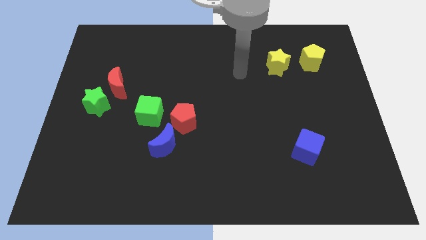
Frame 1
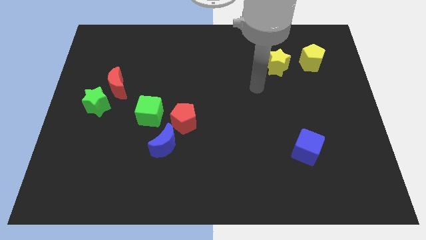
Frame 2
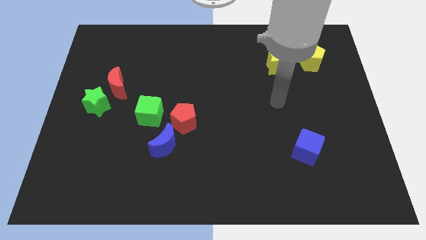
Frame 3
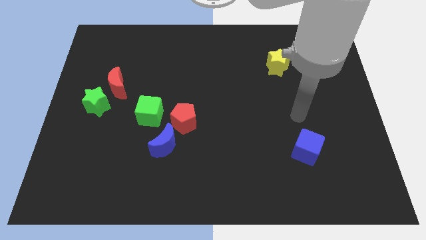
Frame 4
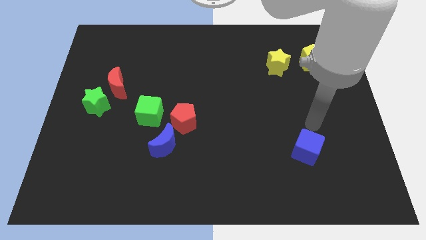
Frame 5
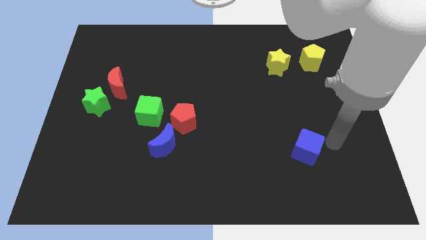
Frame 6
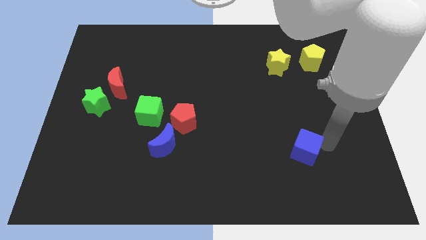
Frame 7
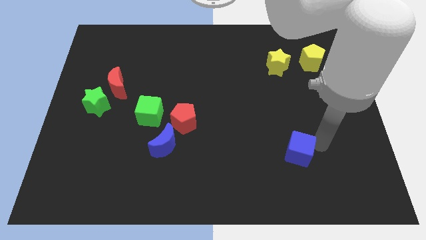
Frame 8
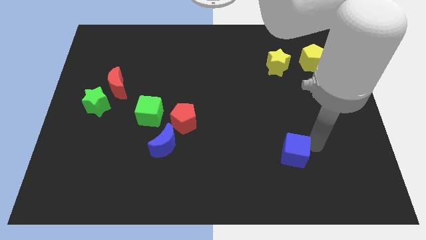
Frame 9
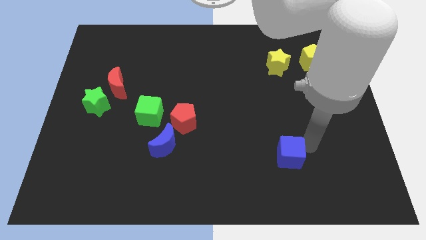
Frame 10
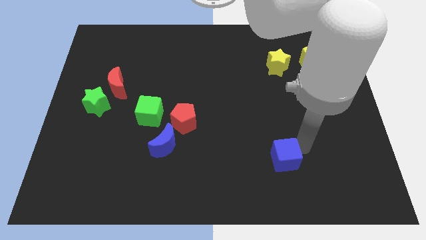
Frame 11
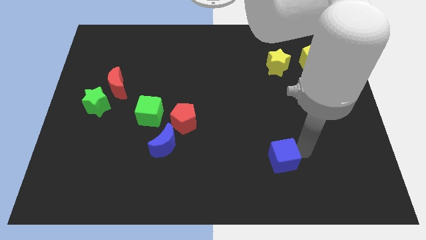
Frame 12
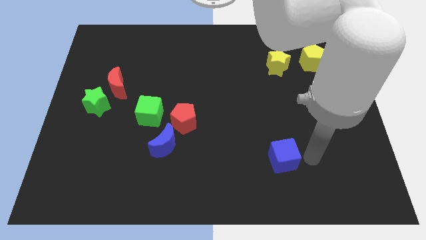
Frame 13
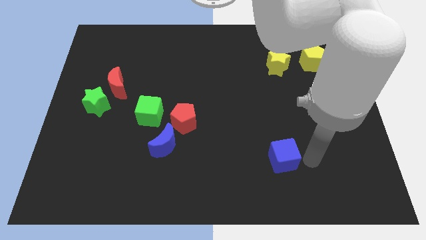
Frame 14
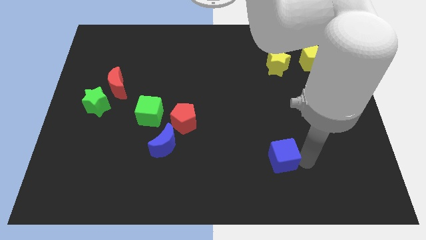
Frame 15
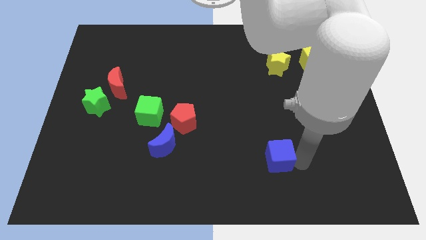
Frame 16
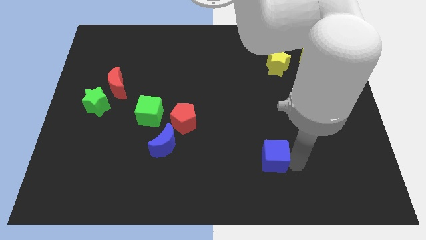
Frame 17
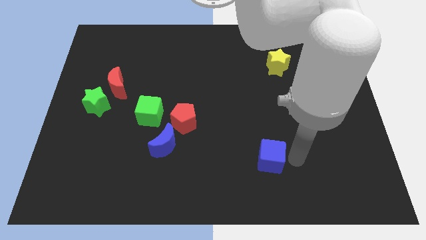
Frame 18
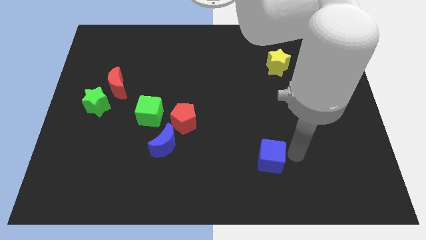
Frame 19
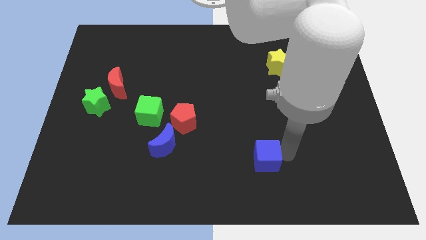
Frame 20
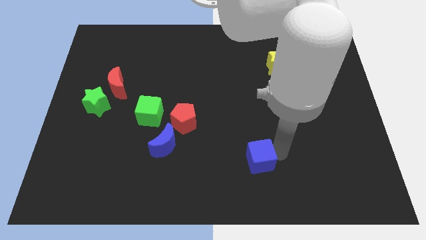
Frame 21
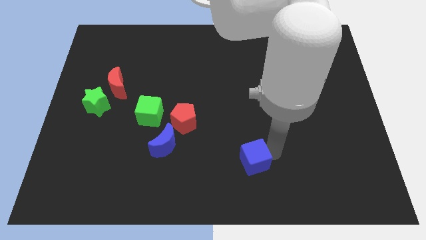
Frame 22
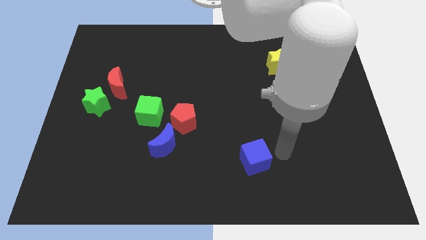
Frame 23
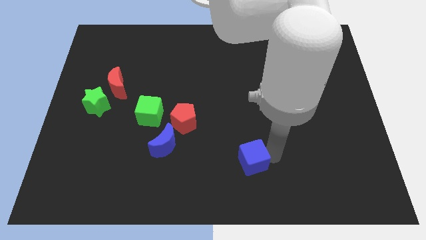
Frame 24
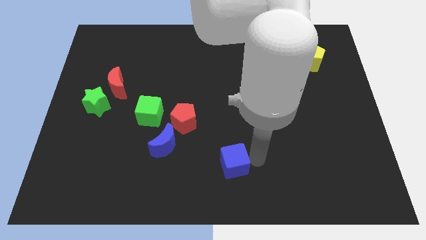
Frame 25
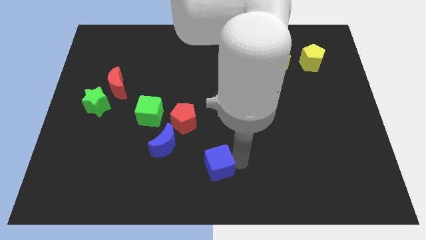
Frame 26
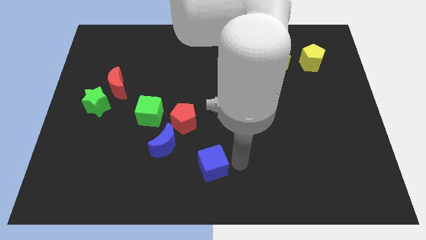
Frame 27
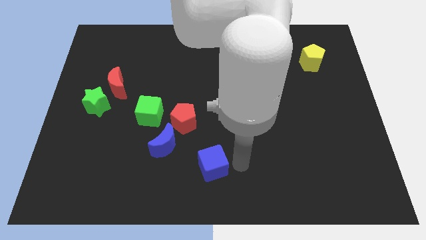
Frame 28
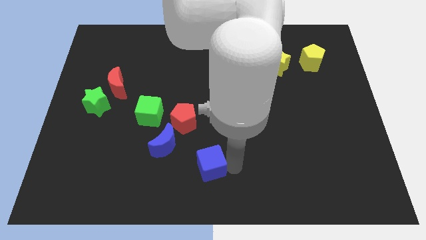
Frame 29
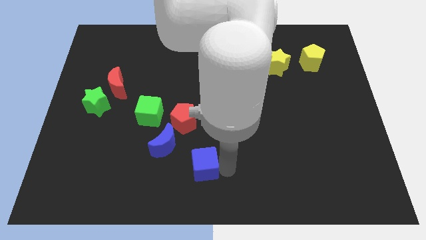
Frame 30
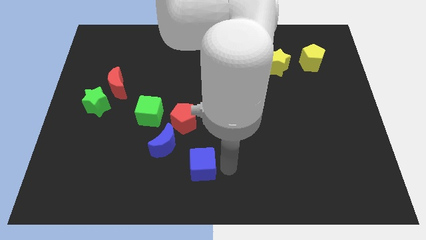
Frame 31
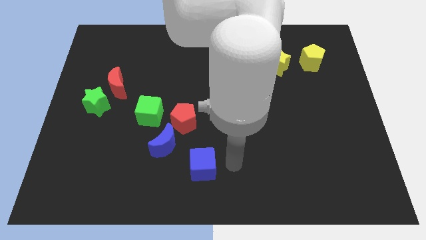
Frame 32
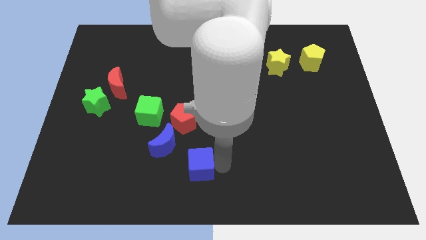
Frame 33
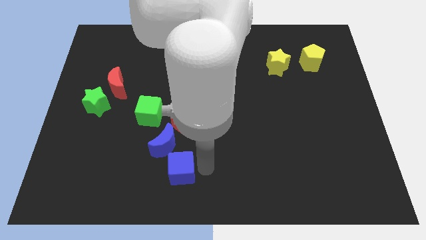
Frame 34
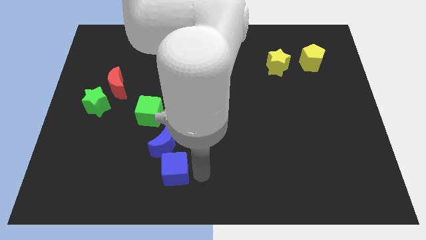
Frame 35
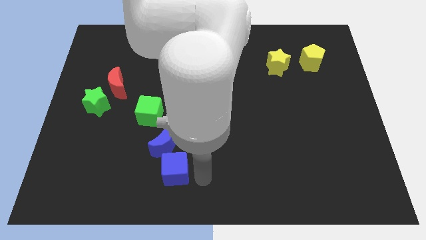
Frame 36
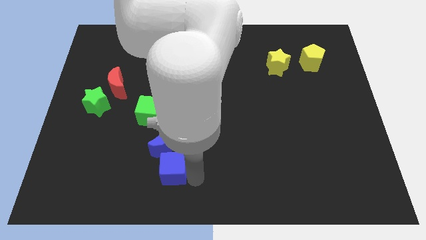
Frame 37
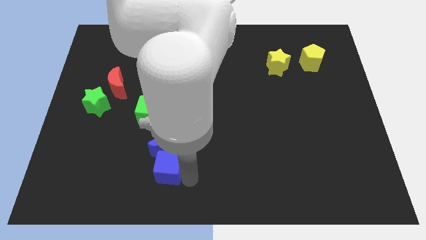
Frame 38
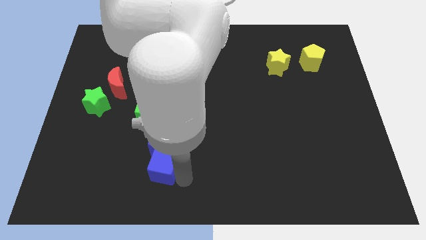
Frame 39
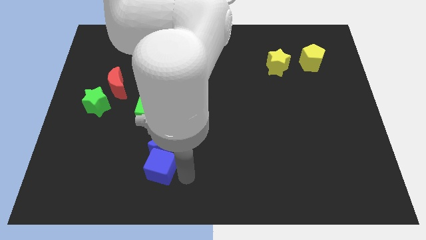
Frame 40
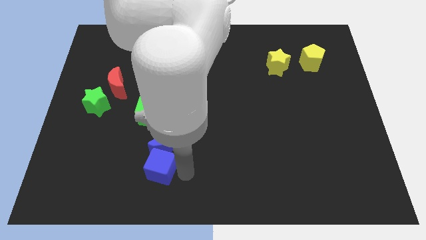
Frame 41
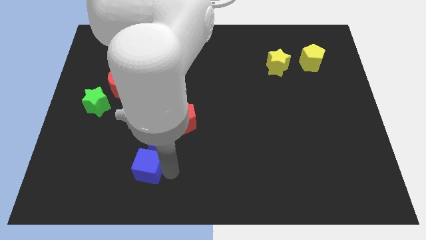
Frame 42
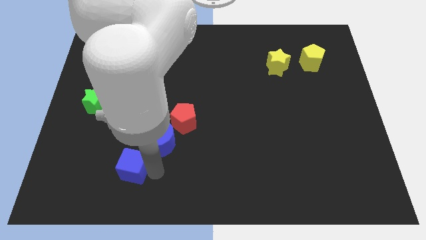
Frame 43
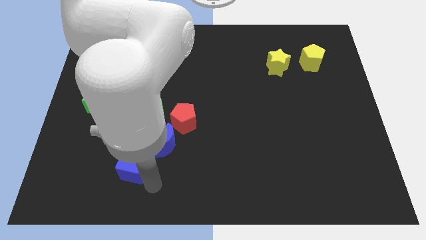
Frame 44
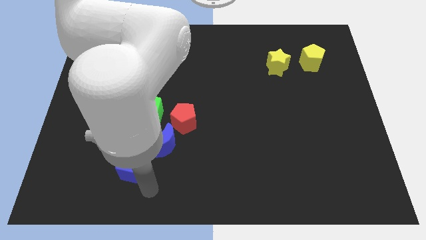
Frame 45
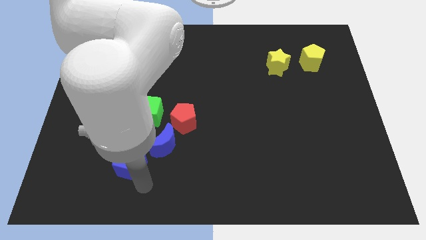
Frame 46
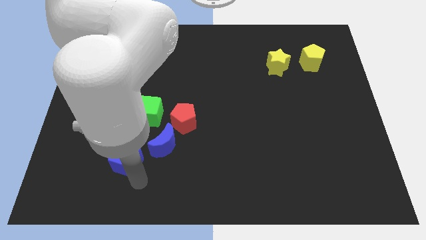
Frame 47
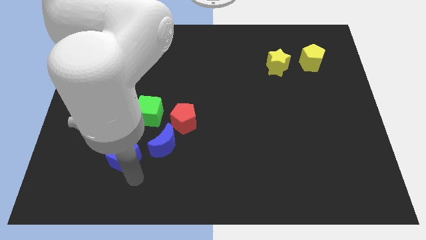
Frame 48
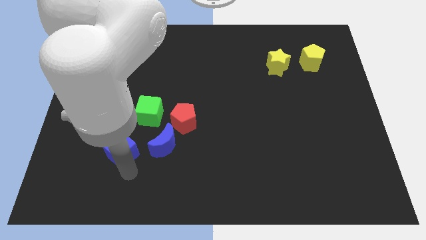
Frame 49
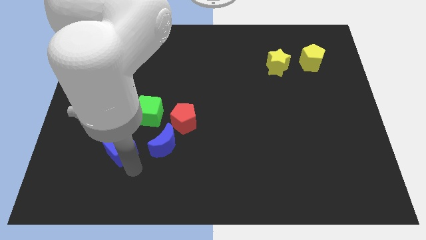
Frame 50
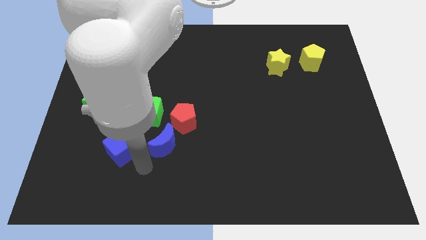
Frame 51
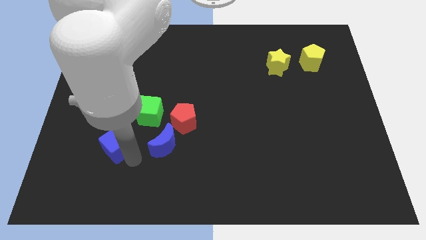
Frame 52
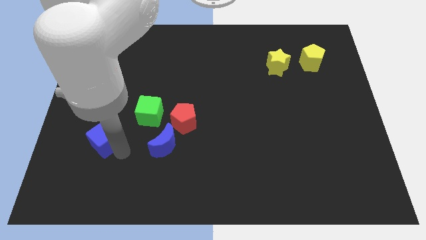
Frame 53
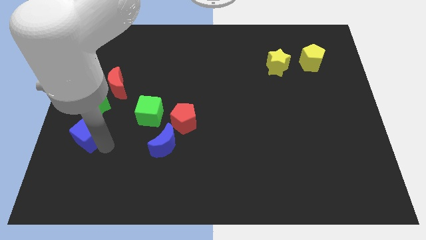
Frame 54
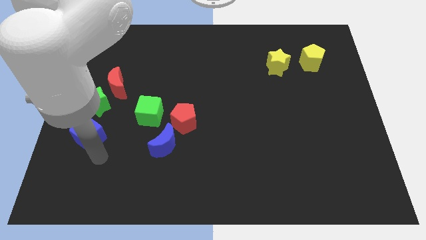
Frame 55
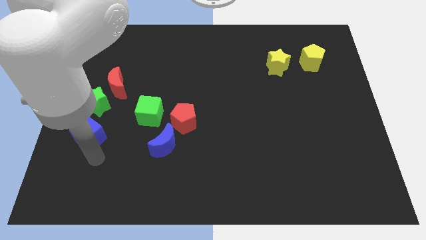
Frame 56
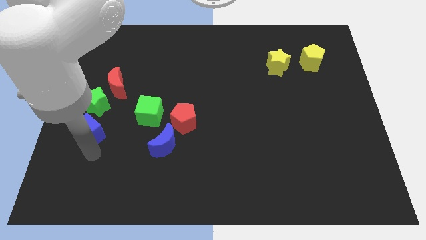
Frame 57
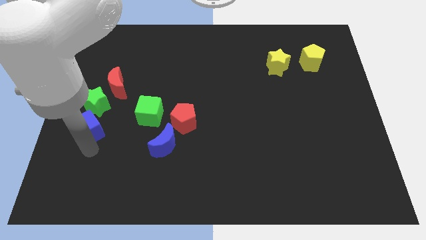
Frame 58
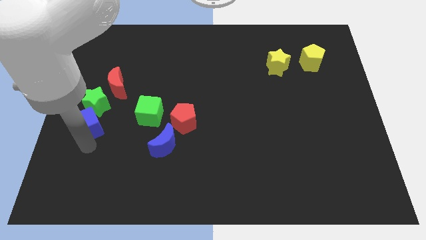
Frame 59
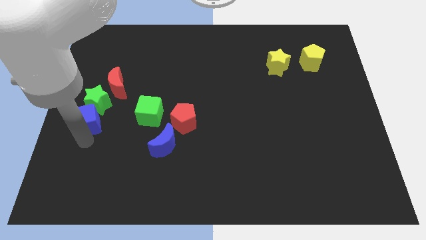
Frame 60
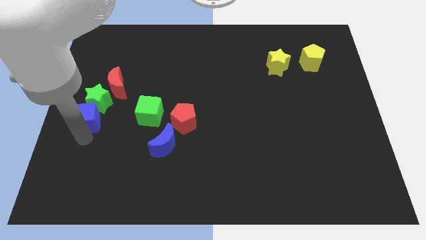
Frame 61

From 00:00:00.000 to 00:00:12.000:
put the blue cube diagonally down and to the left of the red moon

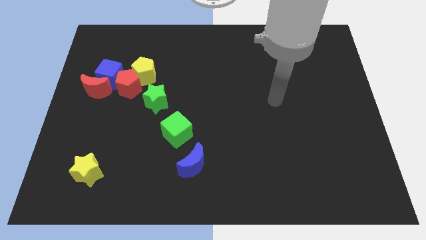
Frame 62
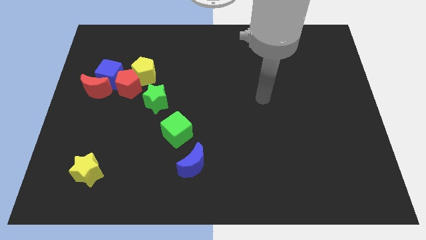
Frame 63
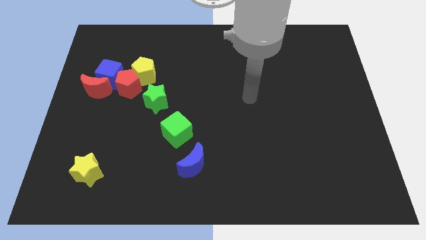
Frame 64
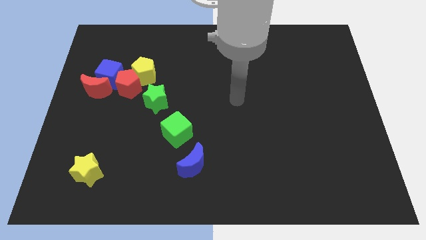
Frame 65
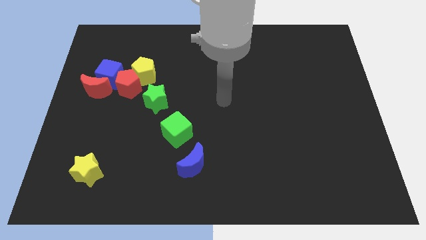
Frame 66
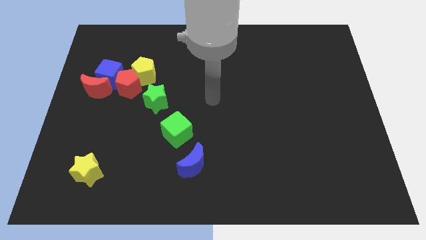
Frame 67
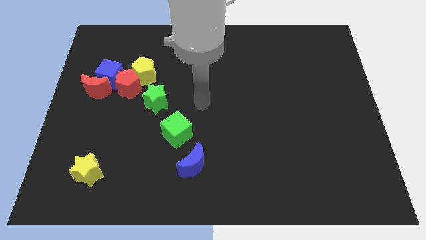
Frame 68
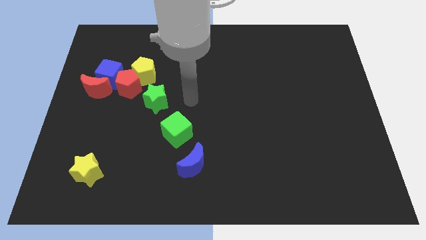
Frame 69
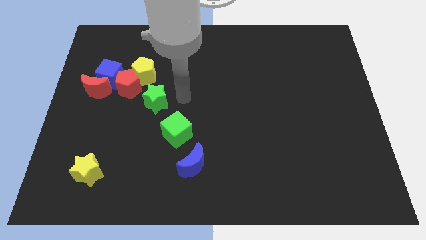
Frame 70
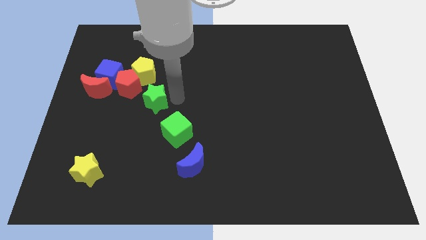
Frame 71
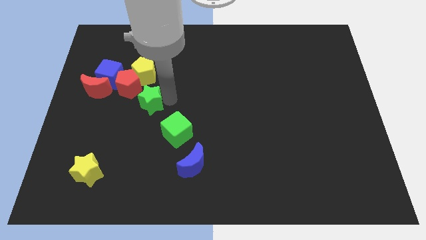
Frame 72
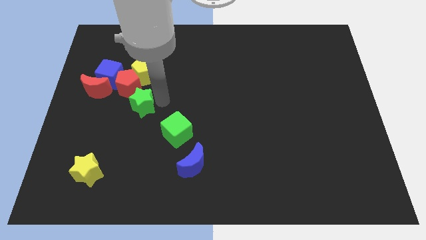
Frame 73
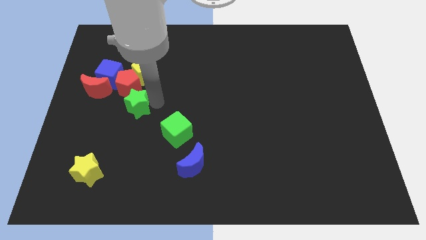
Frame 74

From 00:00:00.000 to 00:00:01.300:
slide the green star to the bottom right side of the red moon

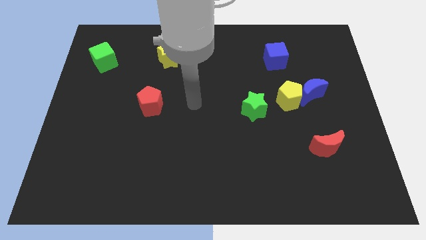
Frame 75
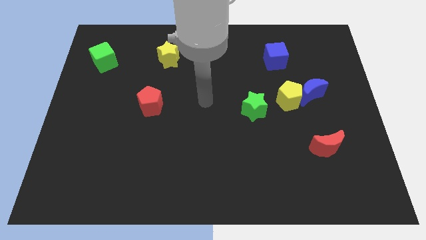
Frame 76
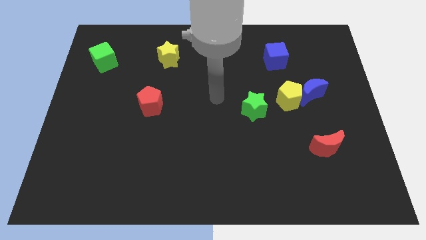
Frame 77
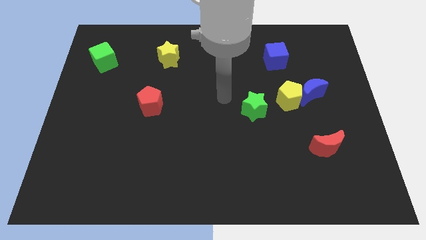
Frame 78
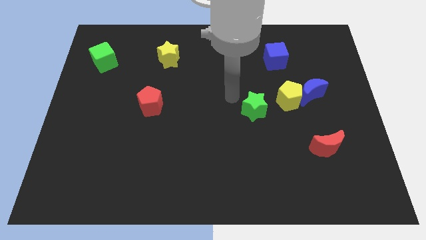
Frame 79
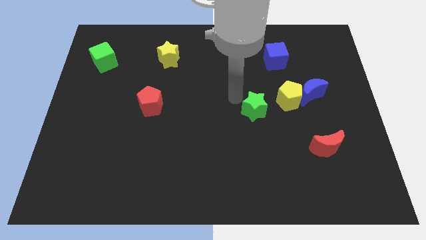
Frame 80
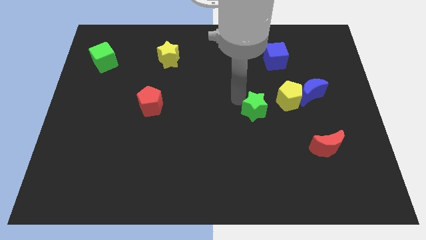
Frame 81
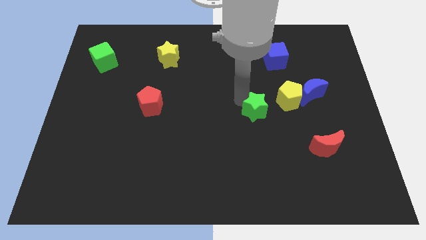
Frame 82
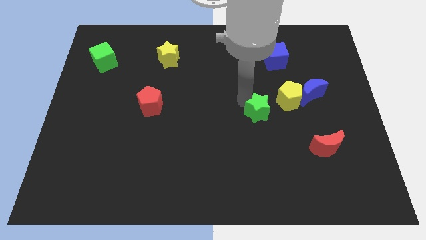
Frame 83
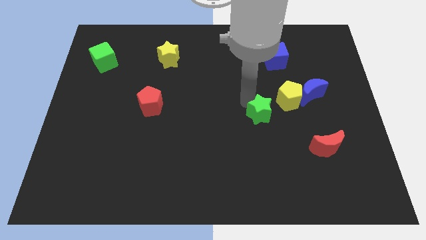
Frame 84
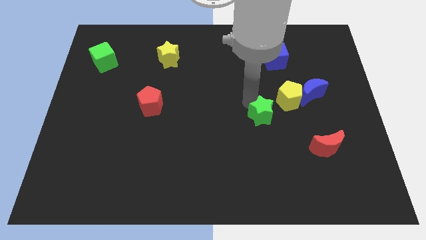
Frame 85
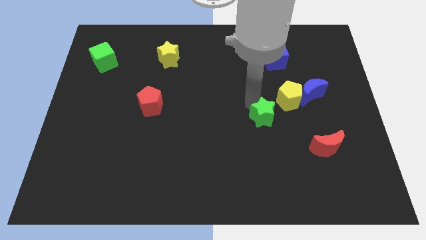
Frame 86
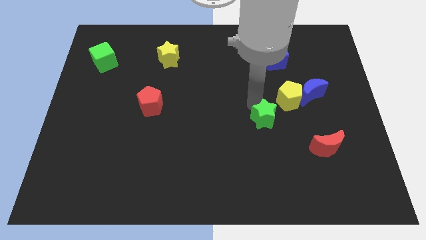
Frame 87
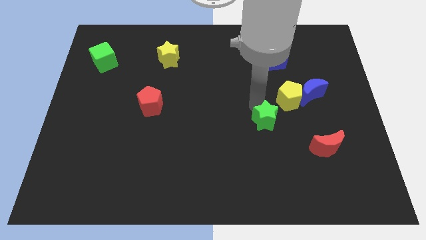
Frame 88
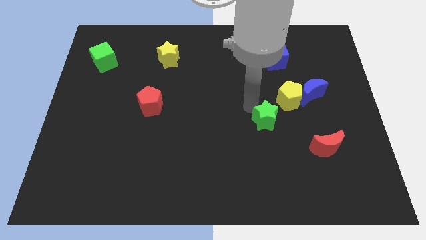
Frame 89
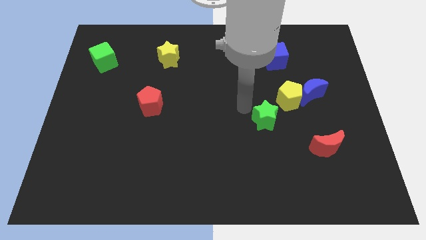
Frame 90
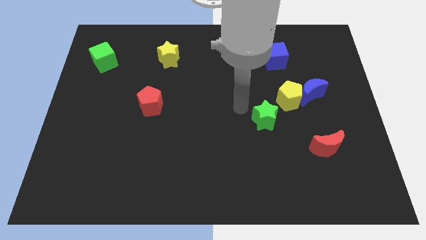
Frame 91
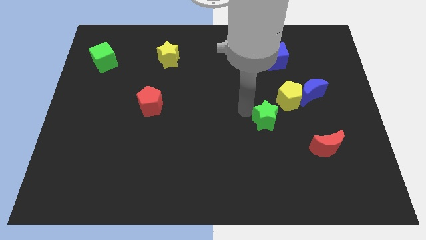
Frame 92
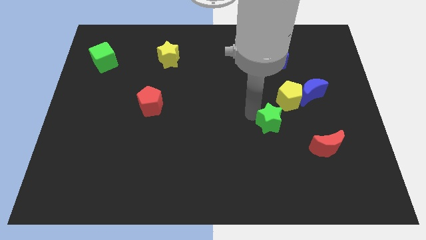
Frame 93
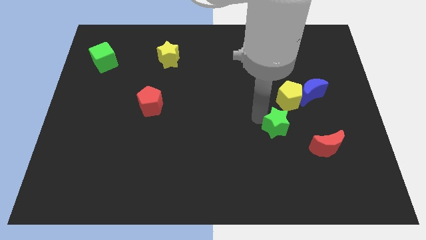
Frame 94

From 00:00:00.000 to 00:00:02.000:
slide the green star below the yellow pentagon
